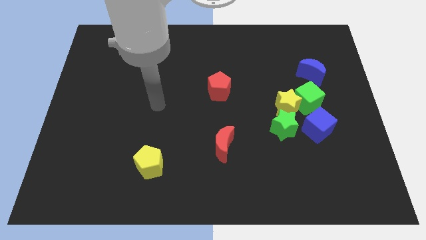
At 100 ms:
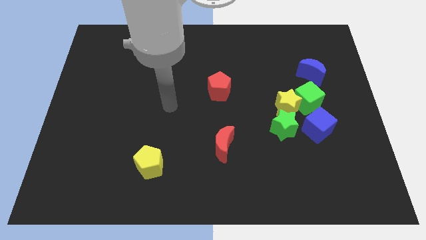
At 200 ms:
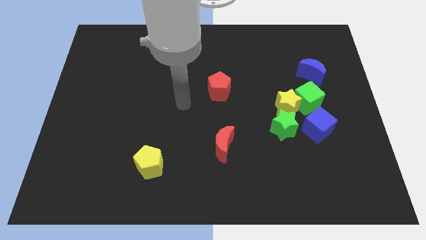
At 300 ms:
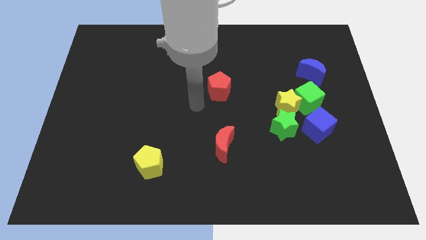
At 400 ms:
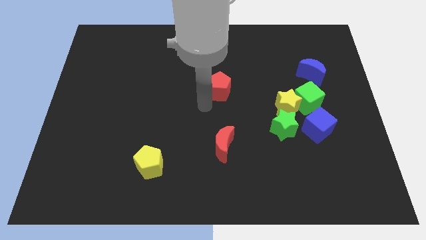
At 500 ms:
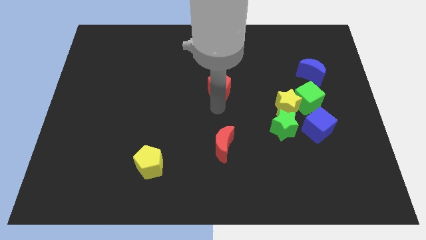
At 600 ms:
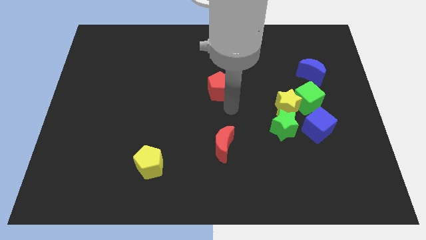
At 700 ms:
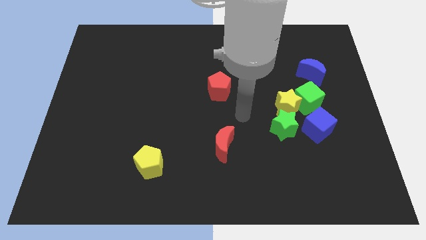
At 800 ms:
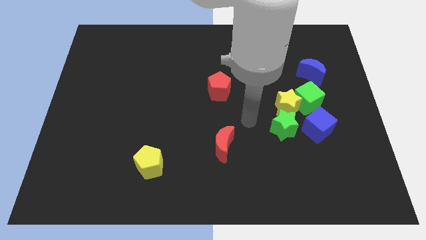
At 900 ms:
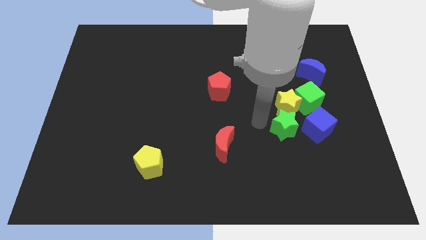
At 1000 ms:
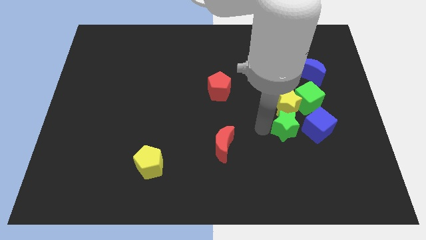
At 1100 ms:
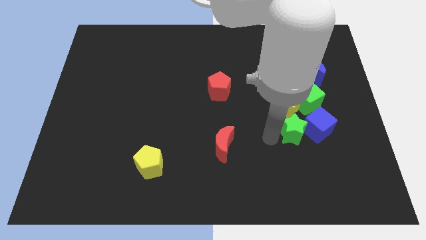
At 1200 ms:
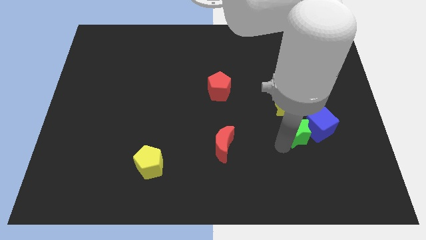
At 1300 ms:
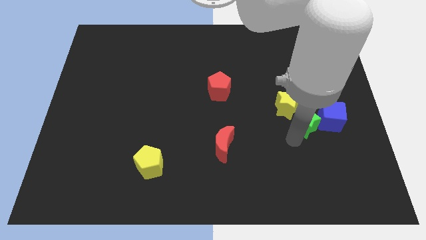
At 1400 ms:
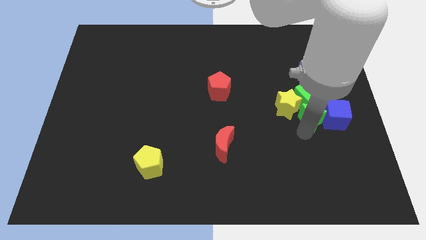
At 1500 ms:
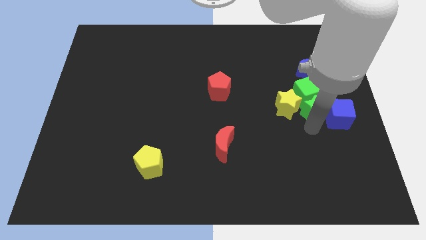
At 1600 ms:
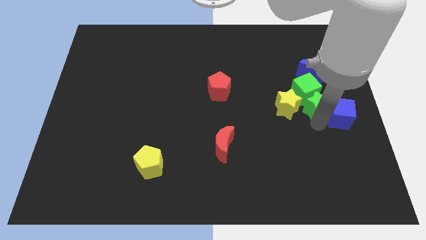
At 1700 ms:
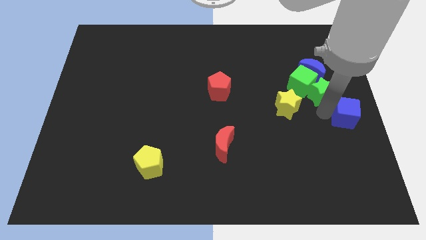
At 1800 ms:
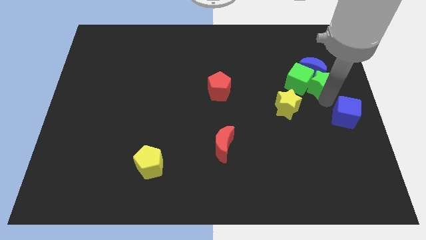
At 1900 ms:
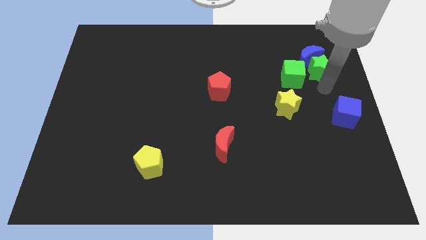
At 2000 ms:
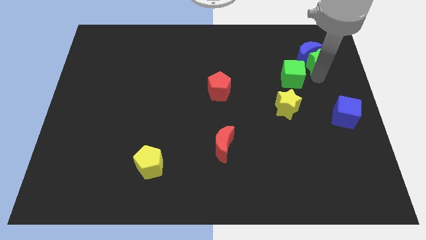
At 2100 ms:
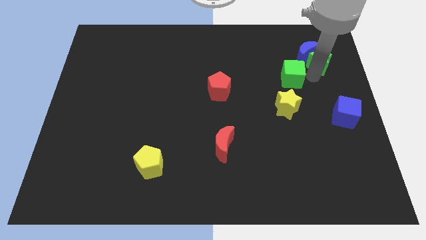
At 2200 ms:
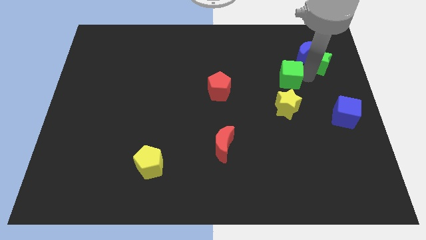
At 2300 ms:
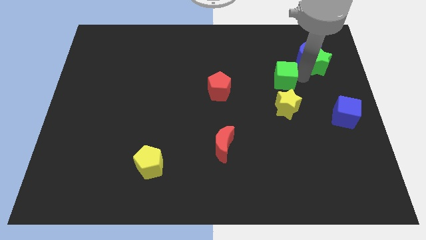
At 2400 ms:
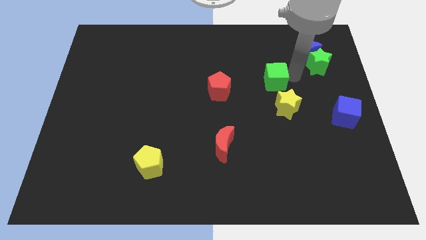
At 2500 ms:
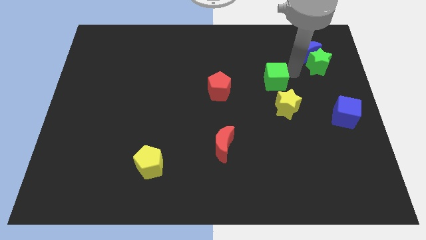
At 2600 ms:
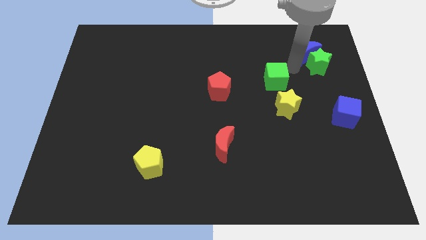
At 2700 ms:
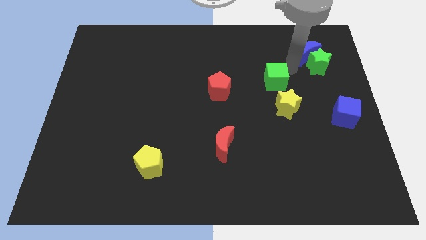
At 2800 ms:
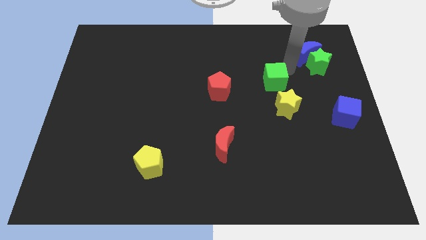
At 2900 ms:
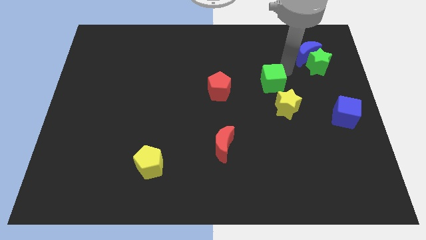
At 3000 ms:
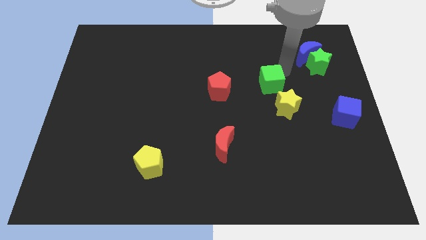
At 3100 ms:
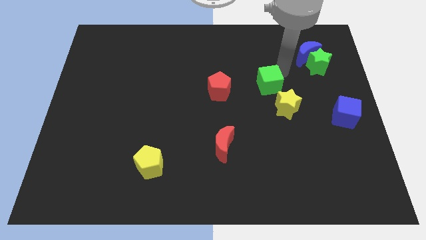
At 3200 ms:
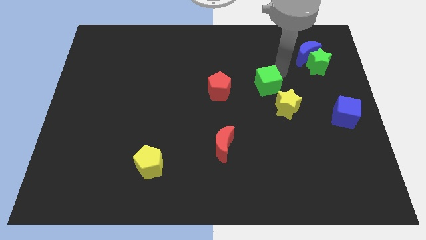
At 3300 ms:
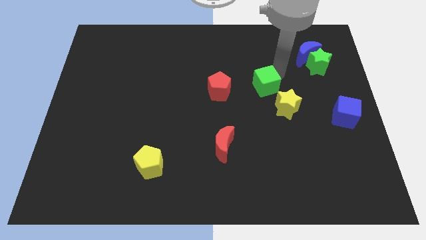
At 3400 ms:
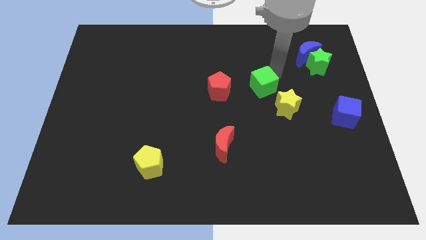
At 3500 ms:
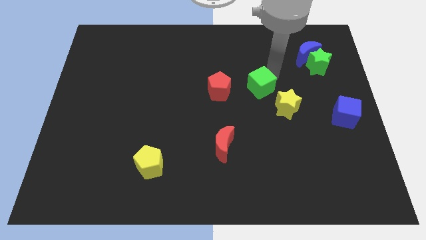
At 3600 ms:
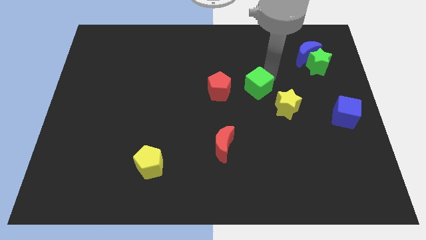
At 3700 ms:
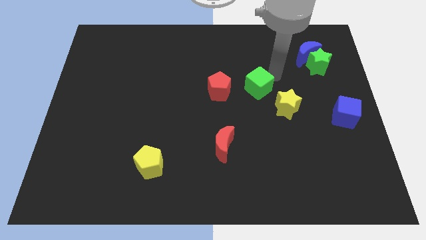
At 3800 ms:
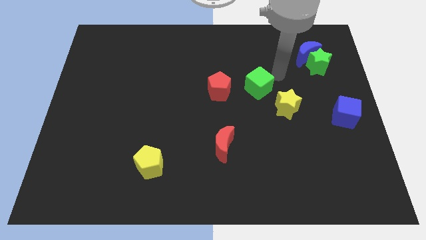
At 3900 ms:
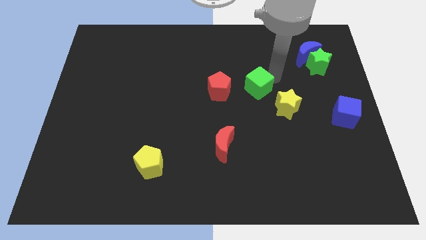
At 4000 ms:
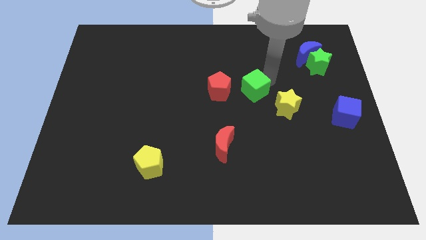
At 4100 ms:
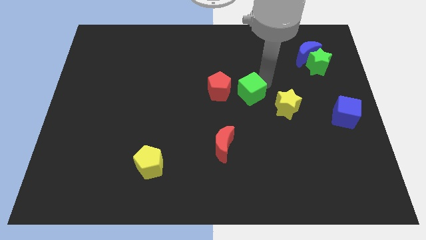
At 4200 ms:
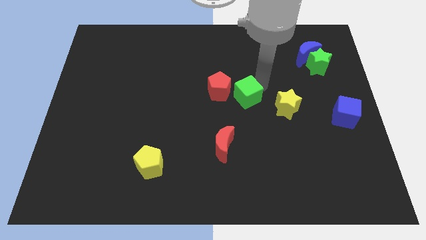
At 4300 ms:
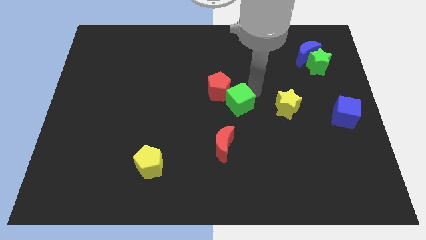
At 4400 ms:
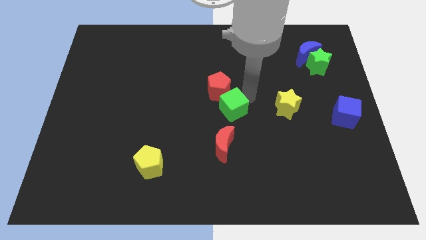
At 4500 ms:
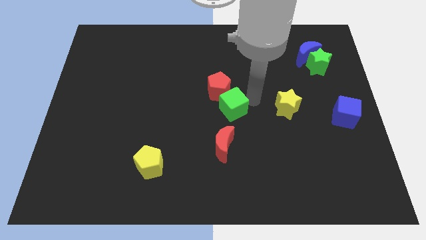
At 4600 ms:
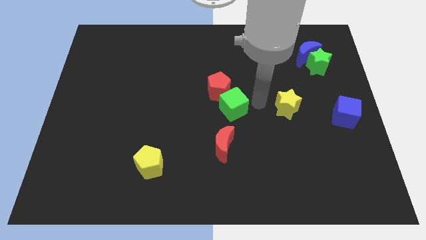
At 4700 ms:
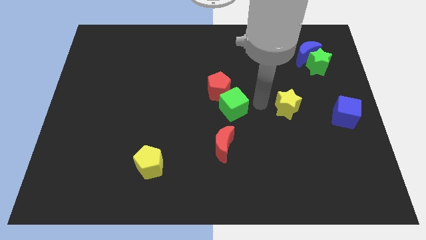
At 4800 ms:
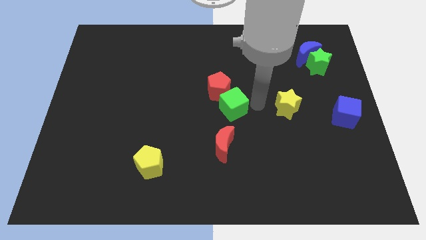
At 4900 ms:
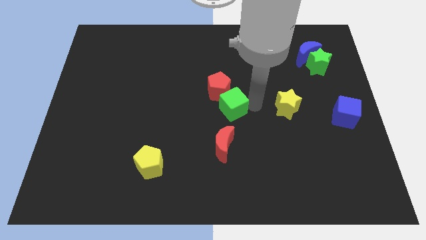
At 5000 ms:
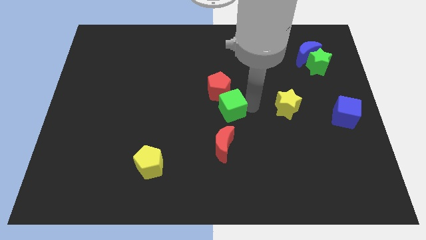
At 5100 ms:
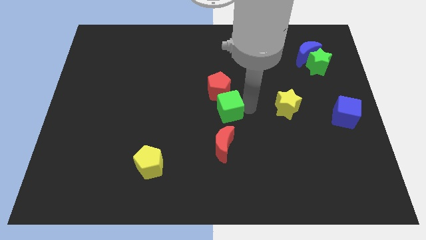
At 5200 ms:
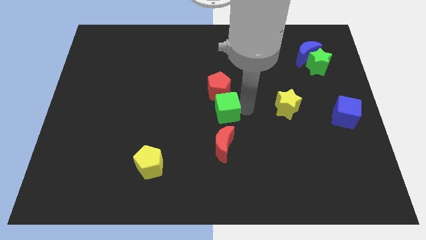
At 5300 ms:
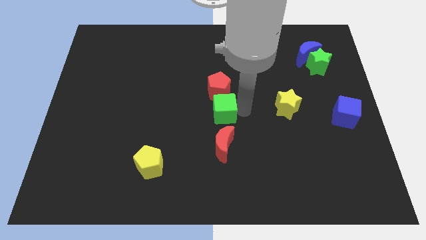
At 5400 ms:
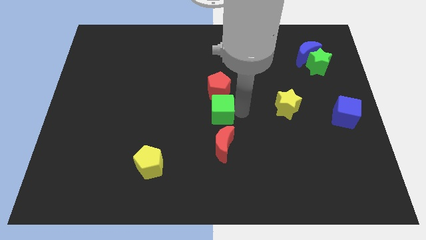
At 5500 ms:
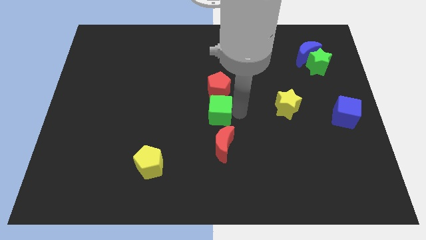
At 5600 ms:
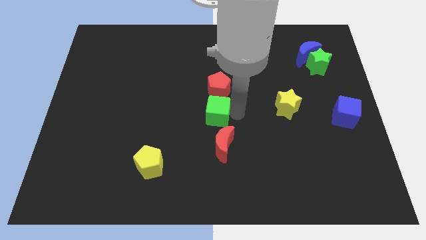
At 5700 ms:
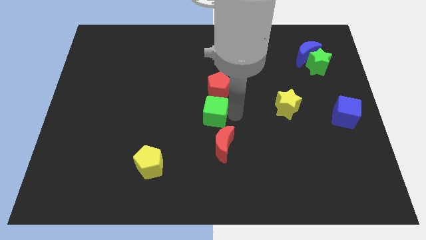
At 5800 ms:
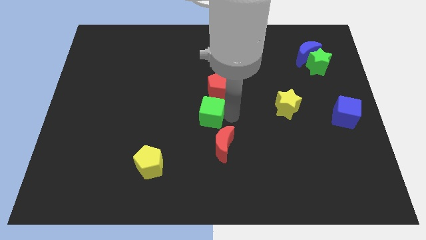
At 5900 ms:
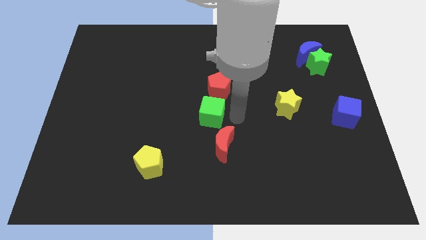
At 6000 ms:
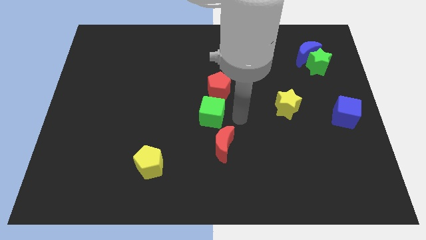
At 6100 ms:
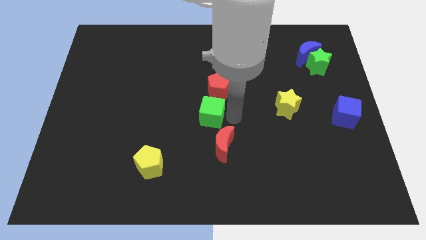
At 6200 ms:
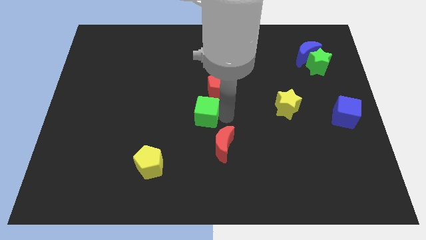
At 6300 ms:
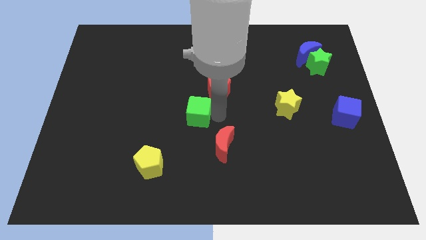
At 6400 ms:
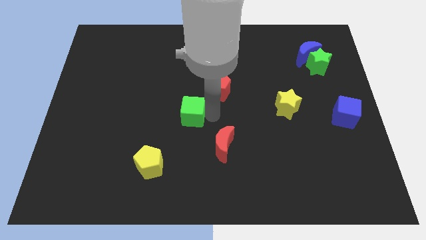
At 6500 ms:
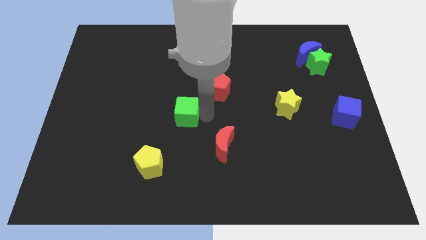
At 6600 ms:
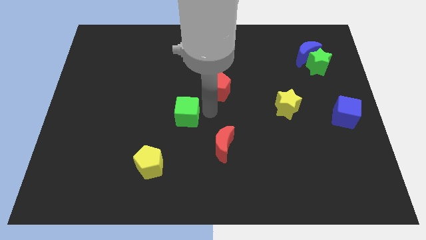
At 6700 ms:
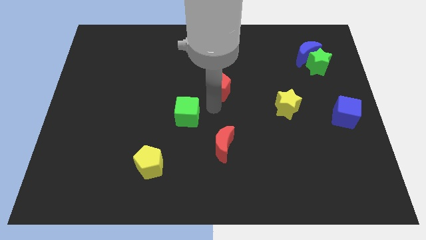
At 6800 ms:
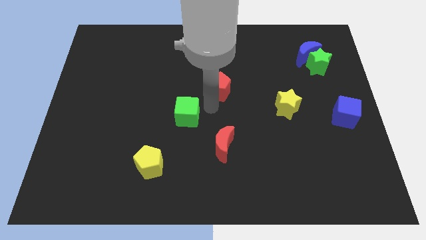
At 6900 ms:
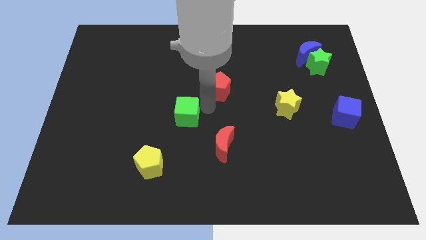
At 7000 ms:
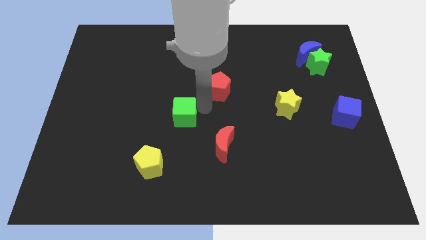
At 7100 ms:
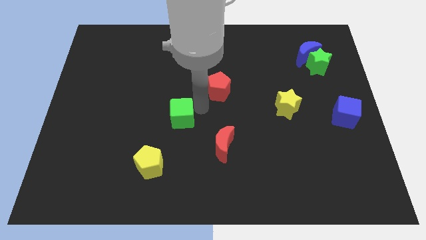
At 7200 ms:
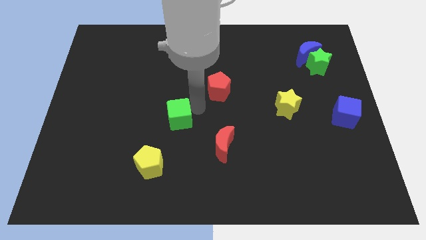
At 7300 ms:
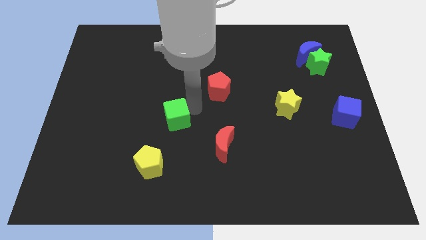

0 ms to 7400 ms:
move the green cube above the yellow pentagon
